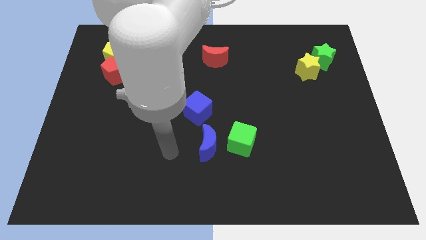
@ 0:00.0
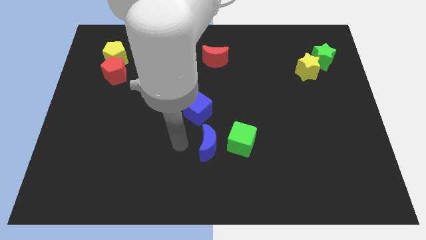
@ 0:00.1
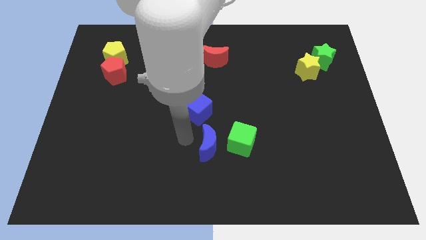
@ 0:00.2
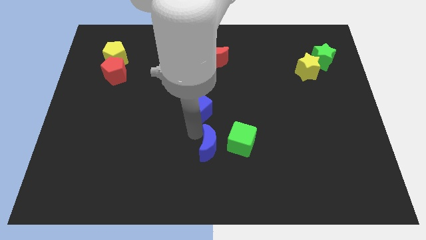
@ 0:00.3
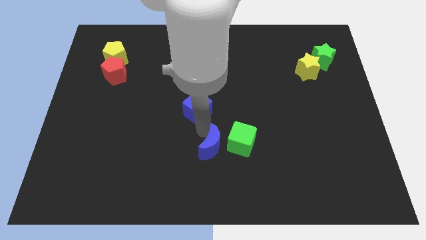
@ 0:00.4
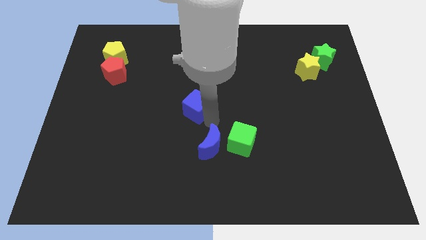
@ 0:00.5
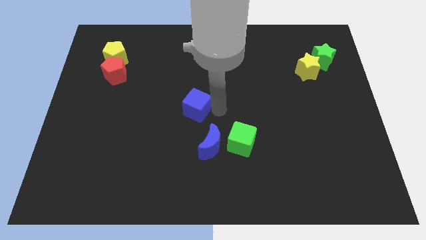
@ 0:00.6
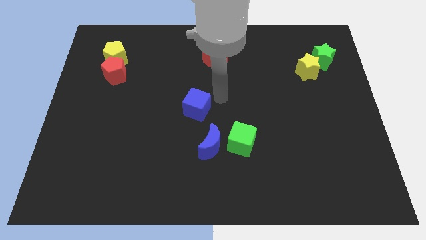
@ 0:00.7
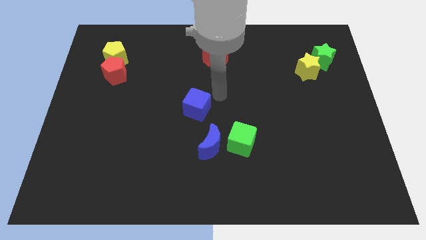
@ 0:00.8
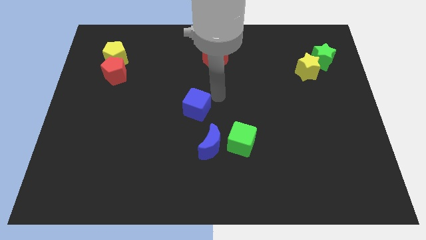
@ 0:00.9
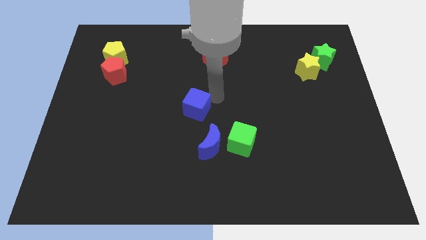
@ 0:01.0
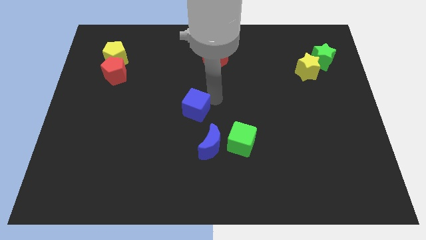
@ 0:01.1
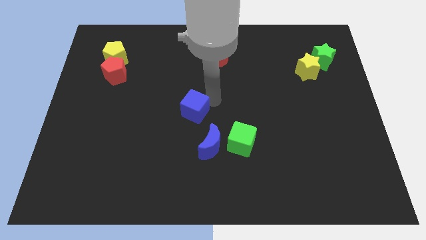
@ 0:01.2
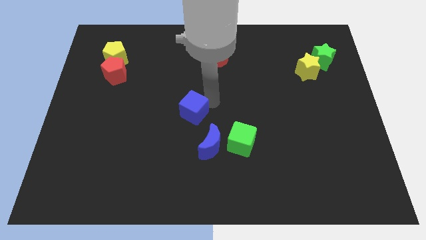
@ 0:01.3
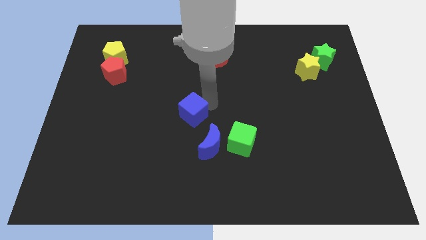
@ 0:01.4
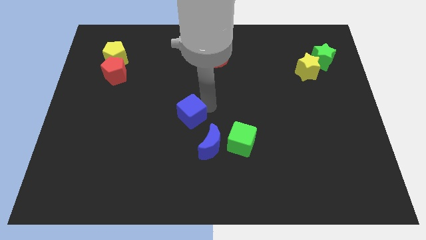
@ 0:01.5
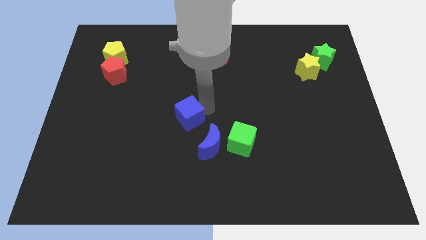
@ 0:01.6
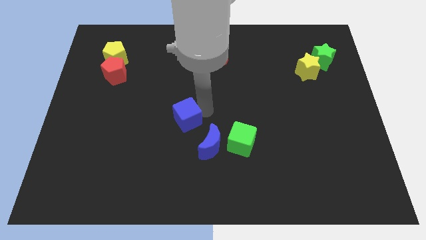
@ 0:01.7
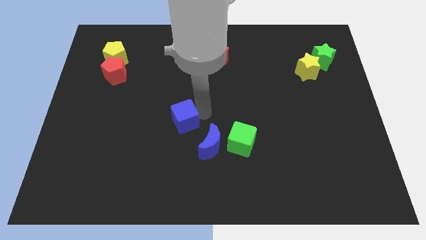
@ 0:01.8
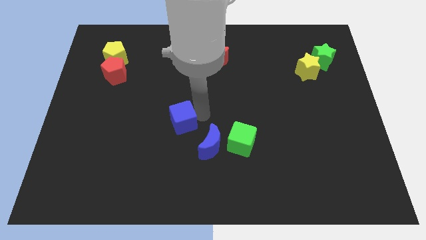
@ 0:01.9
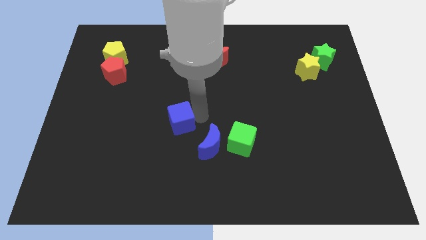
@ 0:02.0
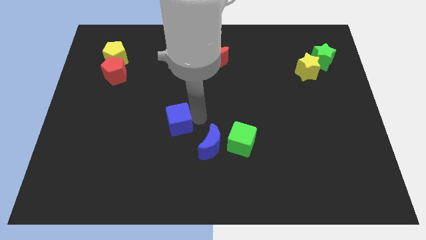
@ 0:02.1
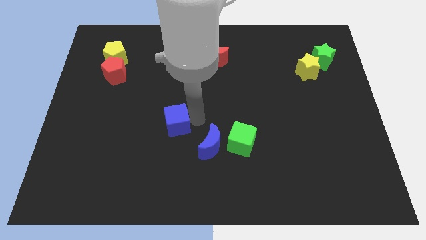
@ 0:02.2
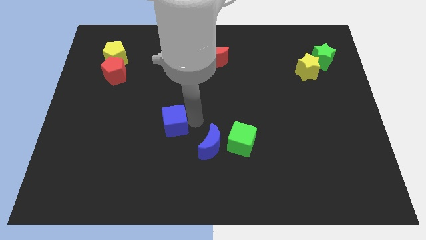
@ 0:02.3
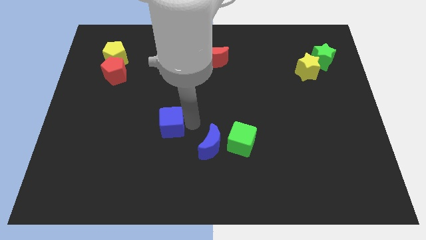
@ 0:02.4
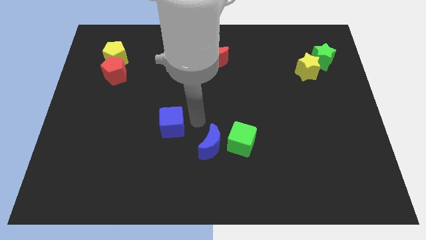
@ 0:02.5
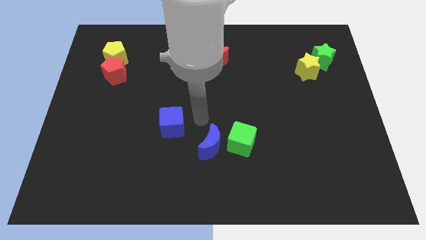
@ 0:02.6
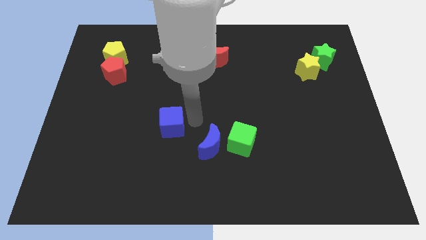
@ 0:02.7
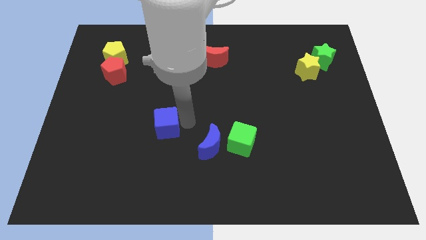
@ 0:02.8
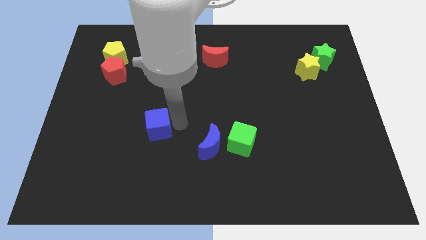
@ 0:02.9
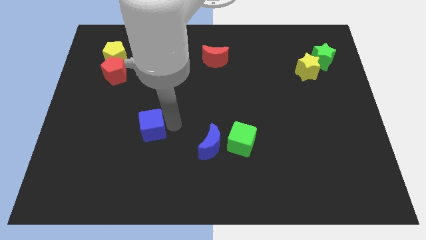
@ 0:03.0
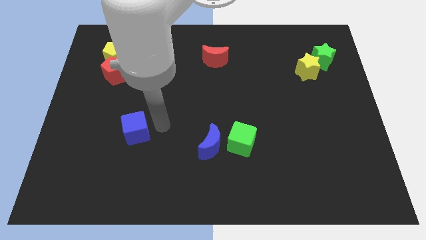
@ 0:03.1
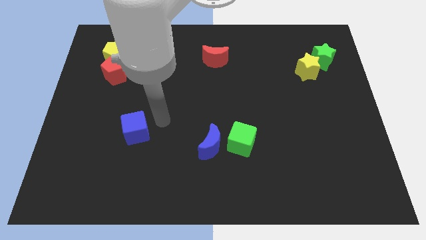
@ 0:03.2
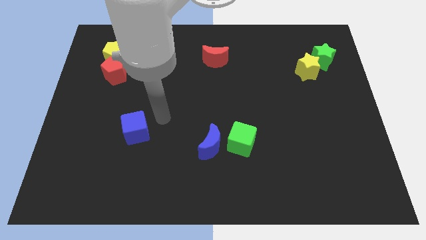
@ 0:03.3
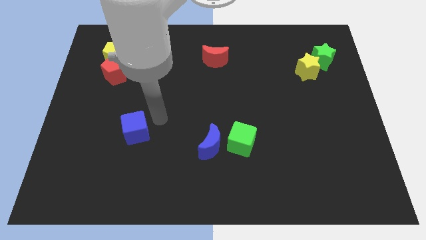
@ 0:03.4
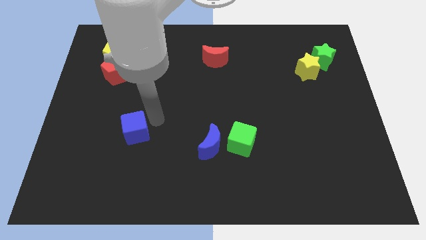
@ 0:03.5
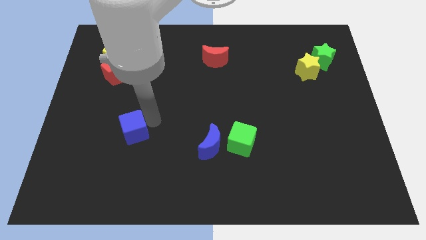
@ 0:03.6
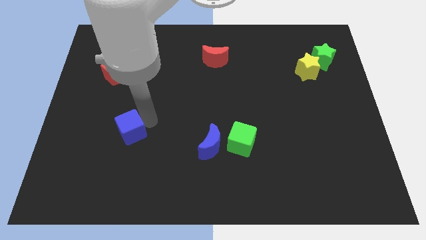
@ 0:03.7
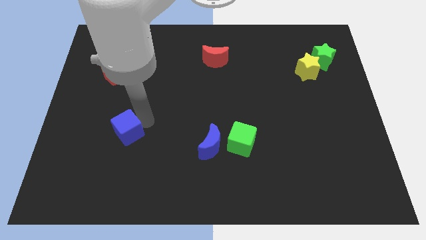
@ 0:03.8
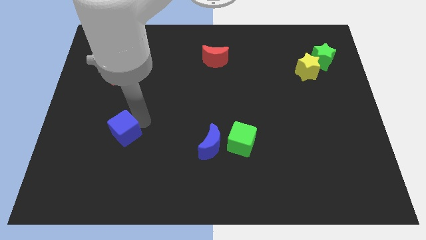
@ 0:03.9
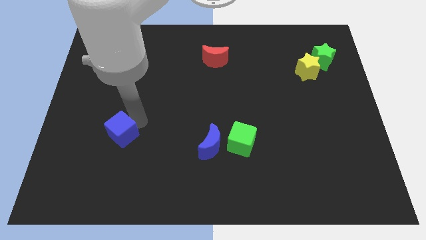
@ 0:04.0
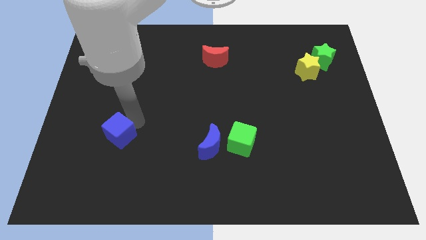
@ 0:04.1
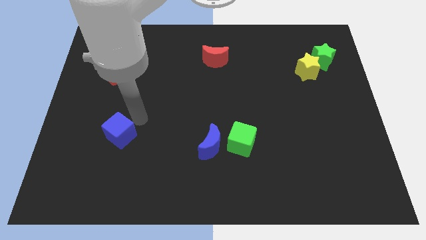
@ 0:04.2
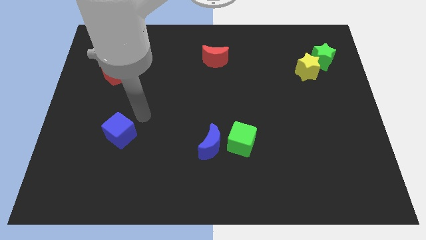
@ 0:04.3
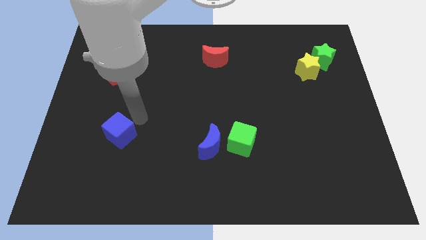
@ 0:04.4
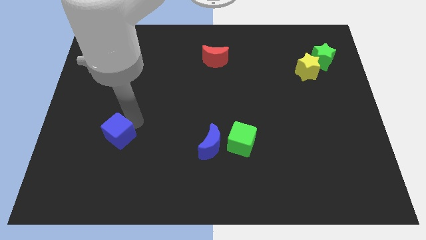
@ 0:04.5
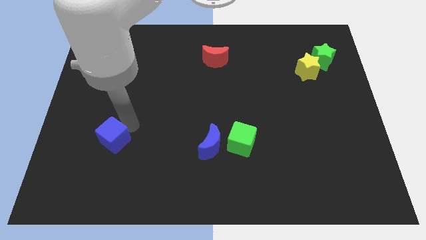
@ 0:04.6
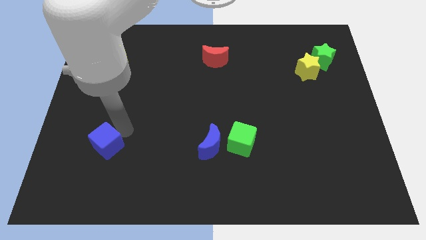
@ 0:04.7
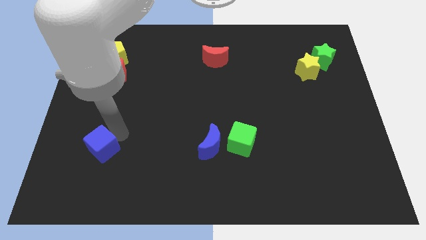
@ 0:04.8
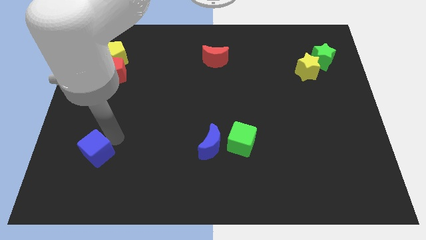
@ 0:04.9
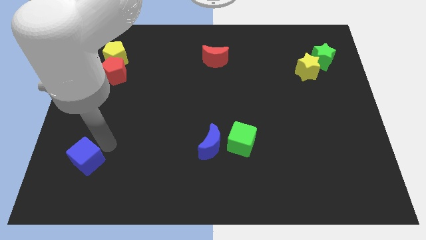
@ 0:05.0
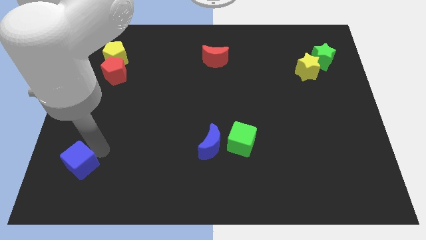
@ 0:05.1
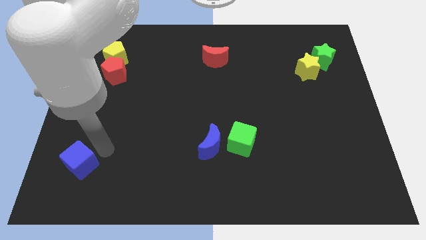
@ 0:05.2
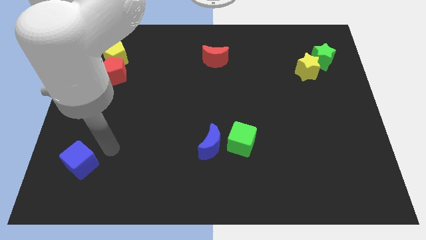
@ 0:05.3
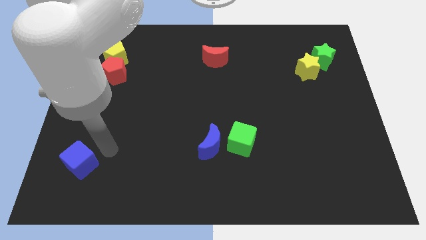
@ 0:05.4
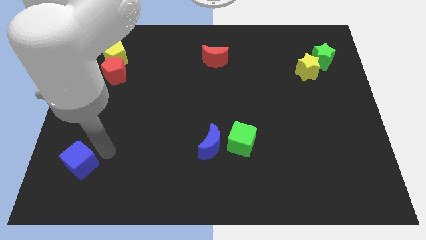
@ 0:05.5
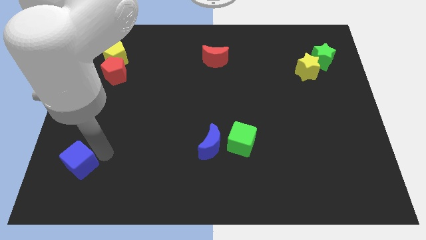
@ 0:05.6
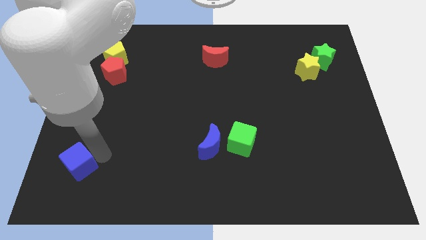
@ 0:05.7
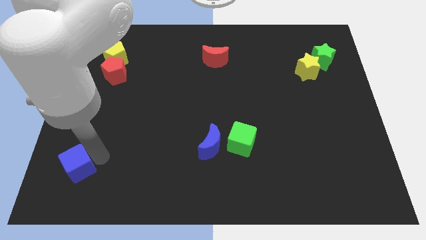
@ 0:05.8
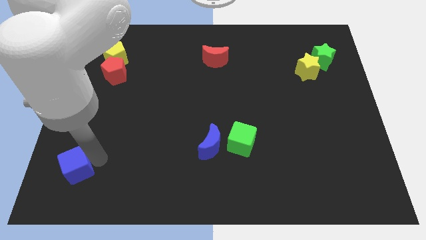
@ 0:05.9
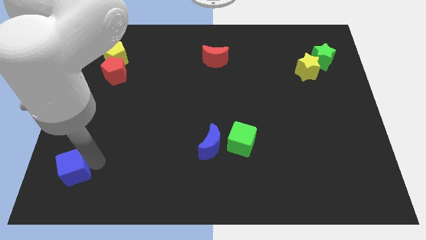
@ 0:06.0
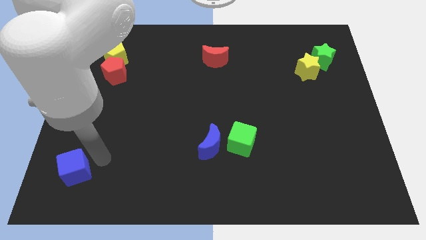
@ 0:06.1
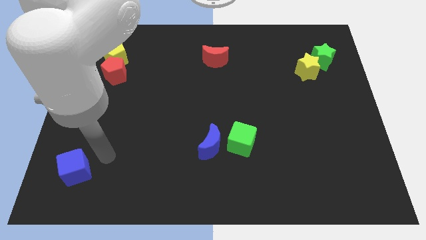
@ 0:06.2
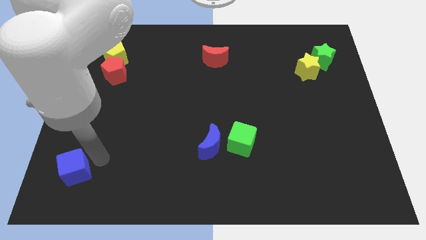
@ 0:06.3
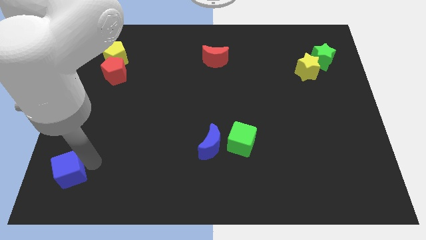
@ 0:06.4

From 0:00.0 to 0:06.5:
move the blue cube to the lower left corner

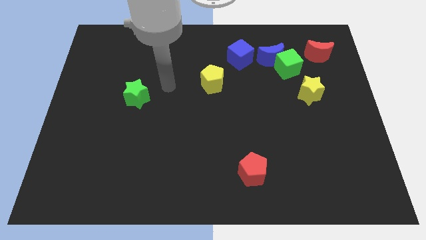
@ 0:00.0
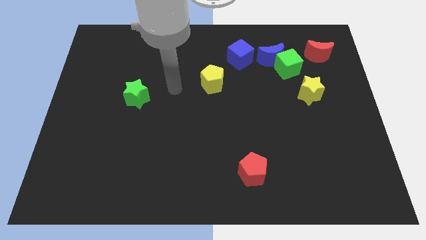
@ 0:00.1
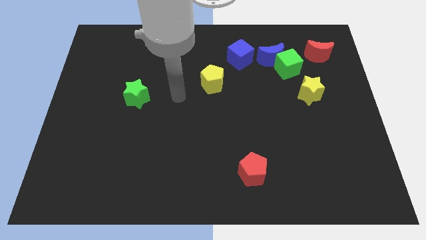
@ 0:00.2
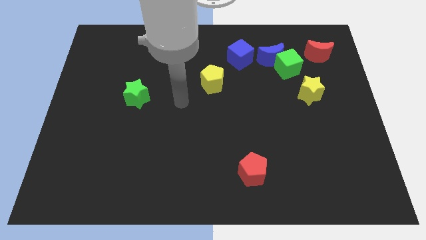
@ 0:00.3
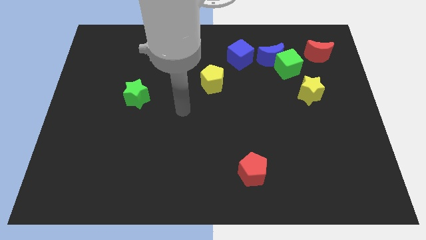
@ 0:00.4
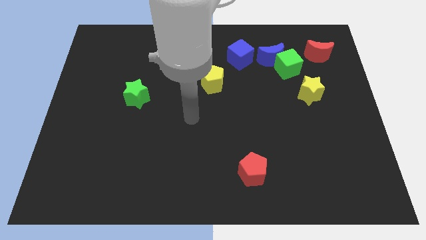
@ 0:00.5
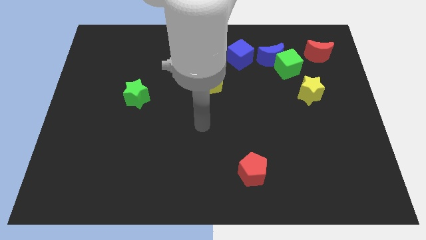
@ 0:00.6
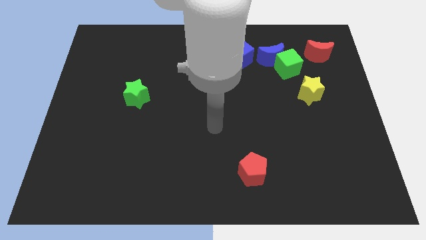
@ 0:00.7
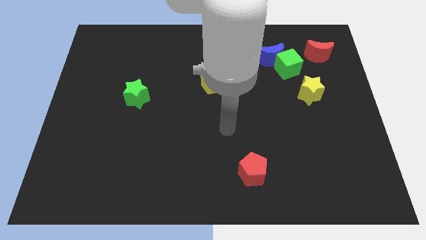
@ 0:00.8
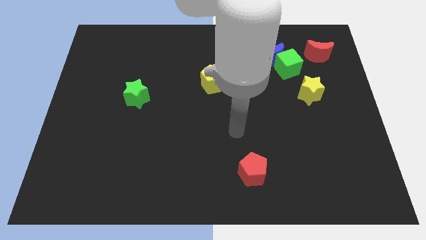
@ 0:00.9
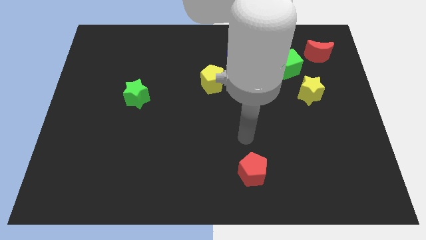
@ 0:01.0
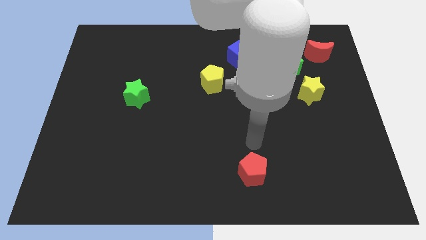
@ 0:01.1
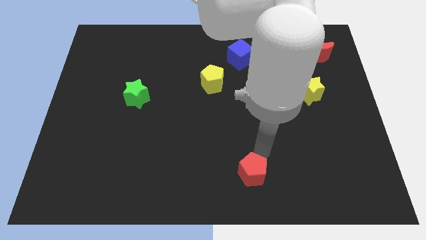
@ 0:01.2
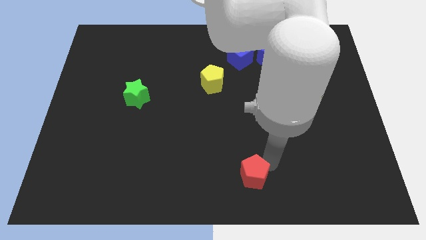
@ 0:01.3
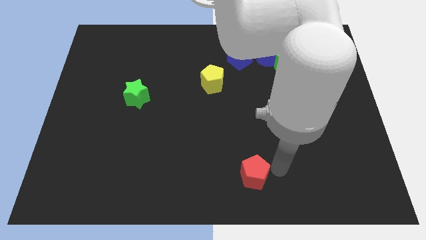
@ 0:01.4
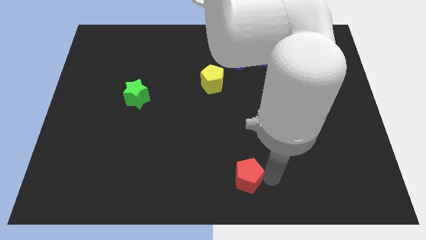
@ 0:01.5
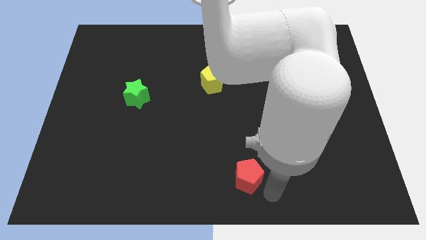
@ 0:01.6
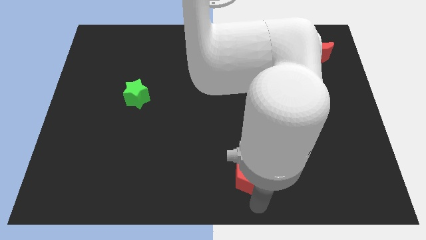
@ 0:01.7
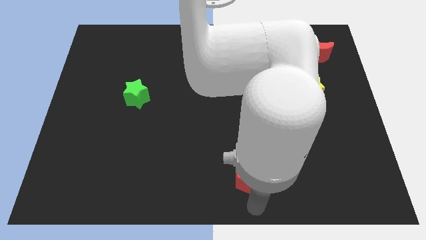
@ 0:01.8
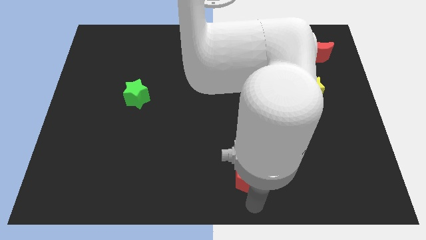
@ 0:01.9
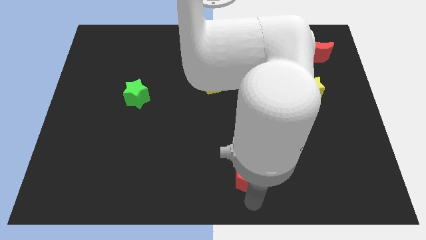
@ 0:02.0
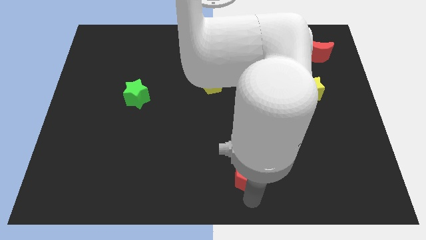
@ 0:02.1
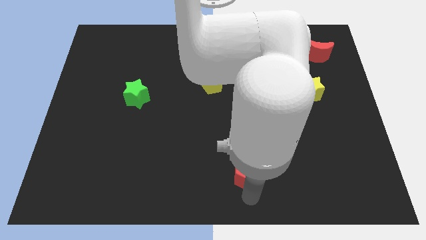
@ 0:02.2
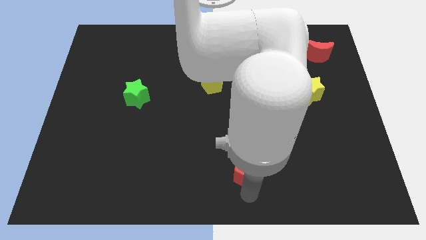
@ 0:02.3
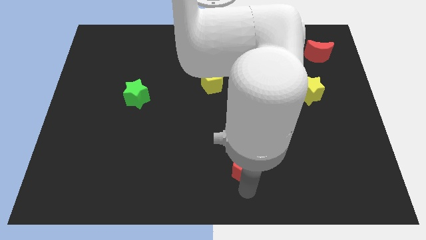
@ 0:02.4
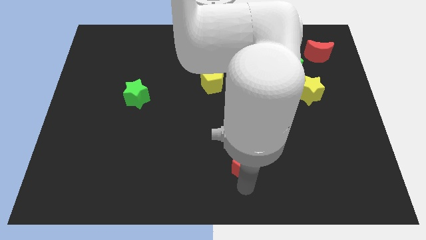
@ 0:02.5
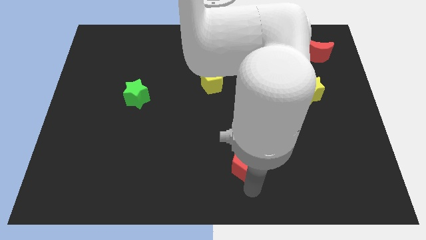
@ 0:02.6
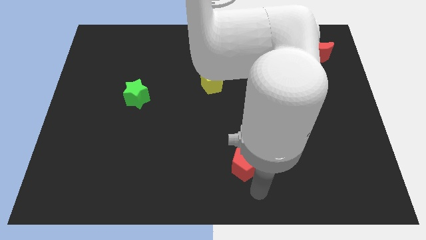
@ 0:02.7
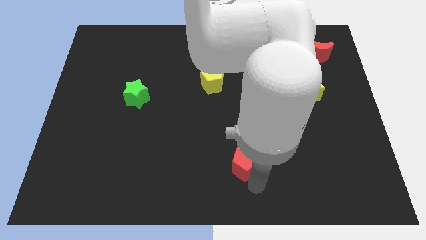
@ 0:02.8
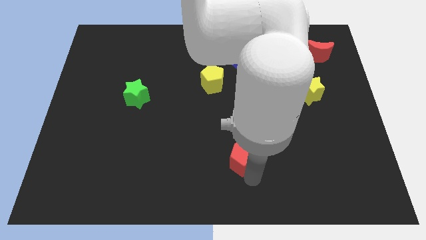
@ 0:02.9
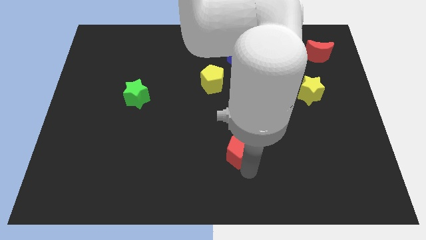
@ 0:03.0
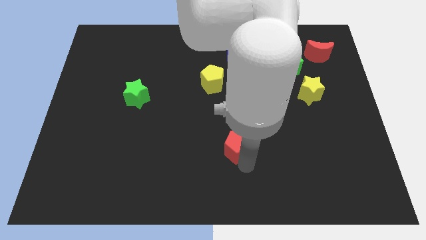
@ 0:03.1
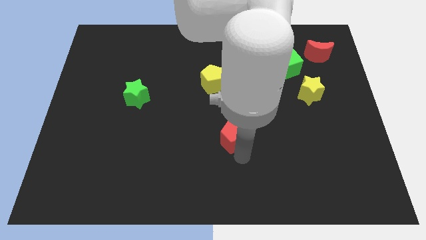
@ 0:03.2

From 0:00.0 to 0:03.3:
push the red pentagon to the middle of the board
